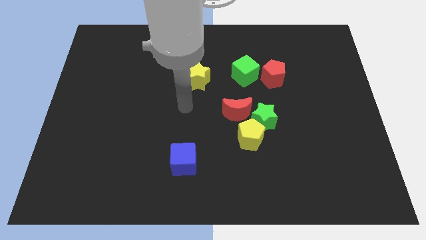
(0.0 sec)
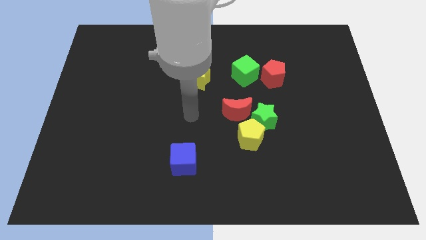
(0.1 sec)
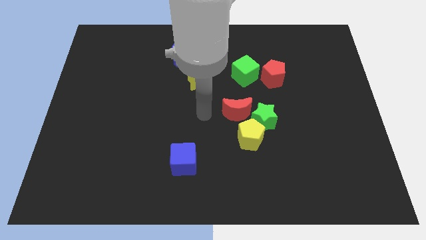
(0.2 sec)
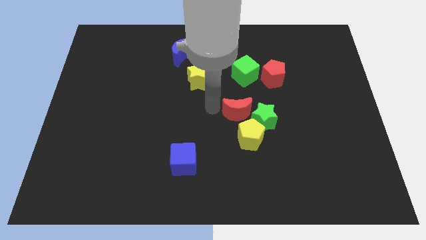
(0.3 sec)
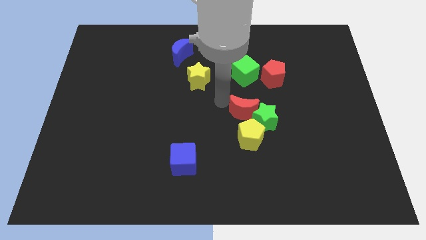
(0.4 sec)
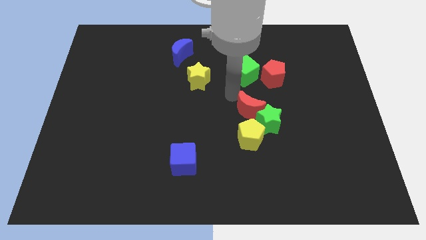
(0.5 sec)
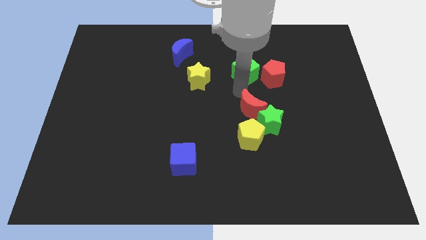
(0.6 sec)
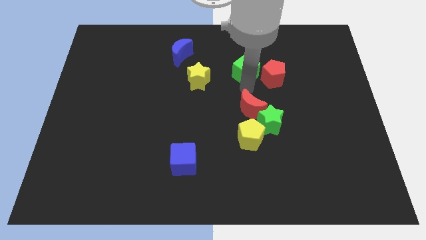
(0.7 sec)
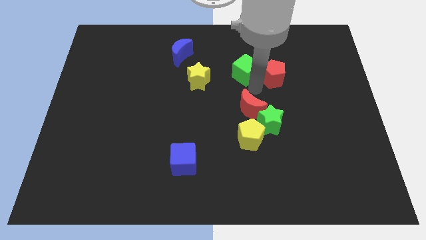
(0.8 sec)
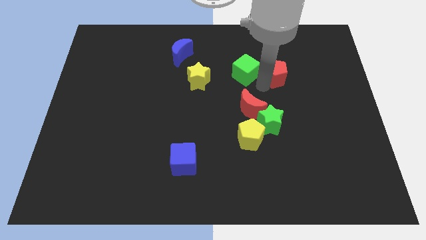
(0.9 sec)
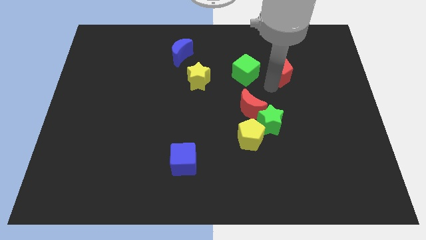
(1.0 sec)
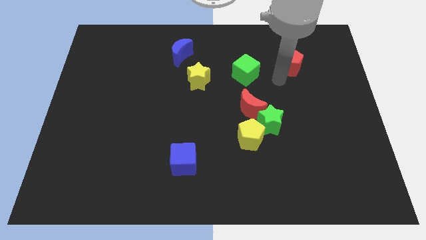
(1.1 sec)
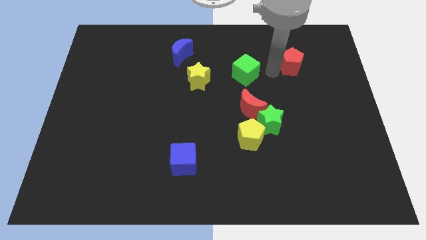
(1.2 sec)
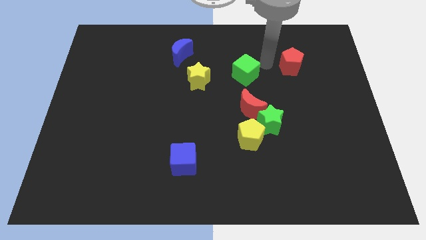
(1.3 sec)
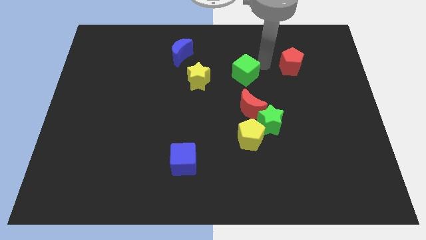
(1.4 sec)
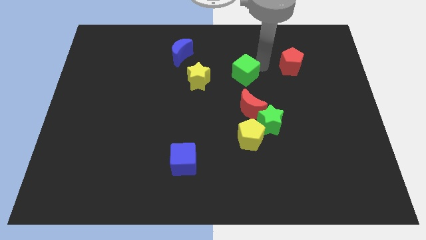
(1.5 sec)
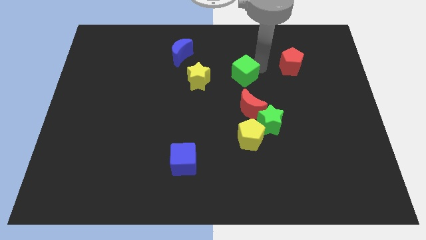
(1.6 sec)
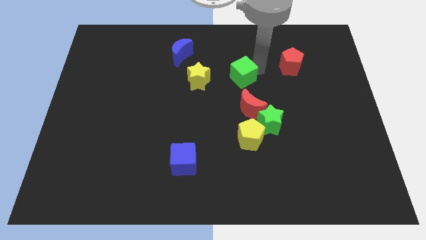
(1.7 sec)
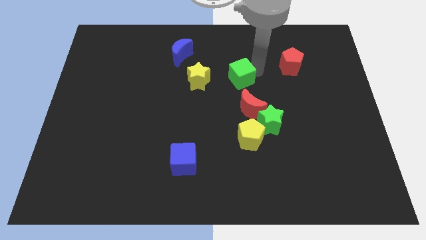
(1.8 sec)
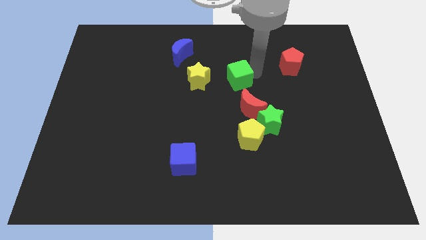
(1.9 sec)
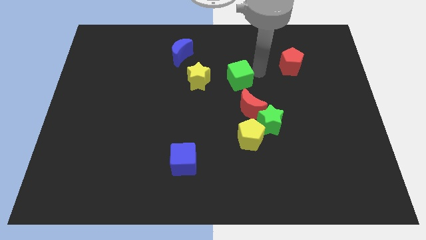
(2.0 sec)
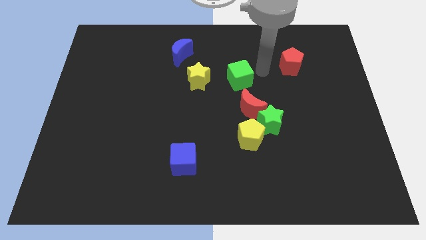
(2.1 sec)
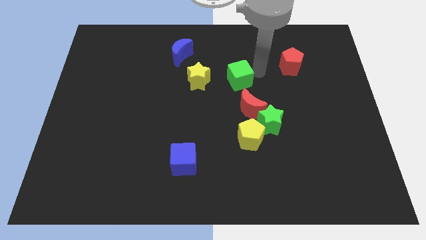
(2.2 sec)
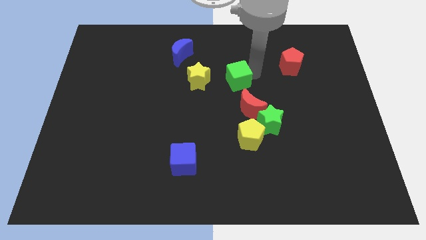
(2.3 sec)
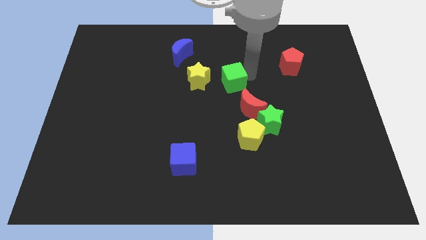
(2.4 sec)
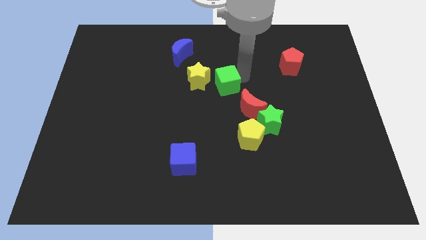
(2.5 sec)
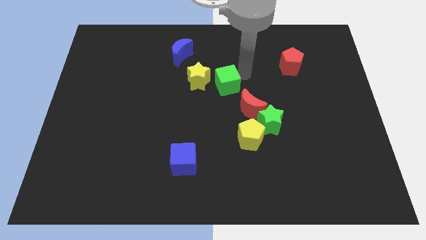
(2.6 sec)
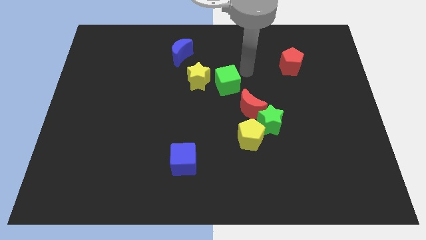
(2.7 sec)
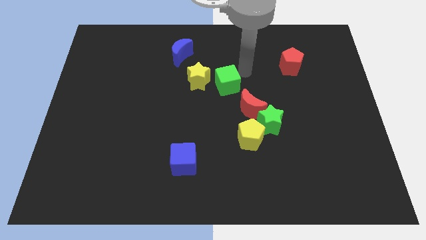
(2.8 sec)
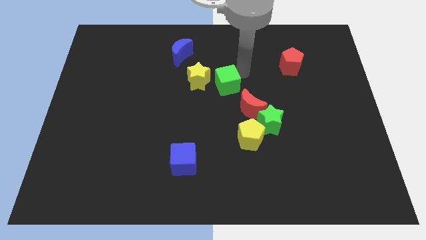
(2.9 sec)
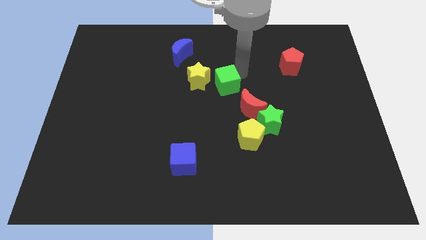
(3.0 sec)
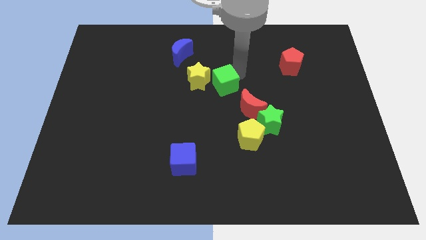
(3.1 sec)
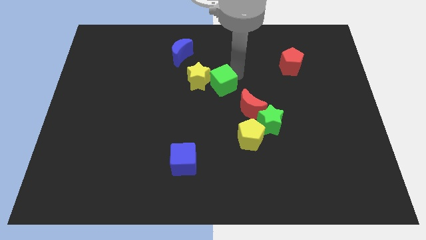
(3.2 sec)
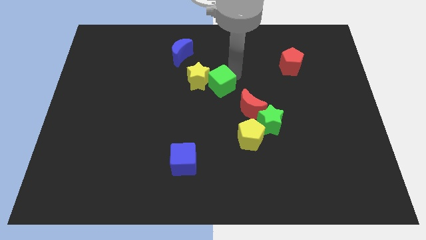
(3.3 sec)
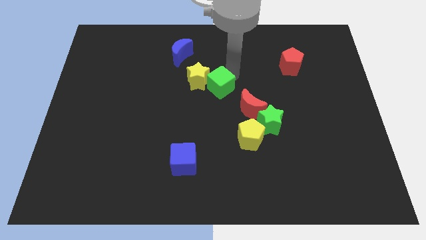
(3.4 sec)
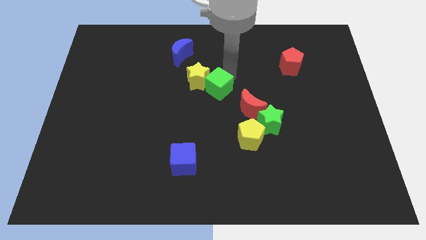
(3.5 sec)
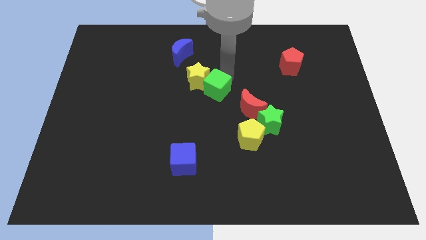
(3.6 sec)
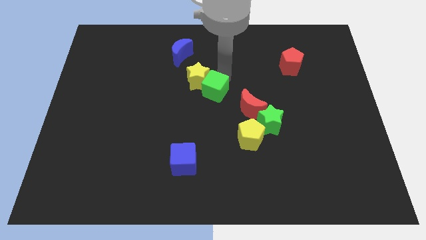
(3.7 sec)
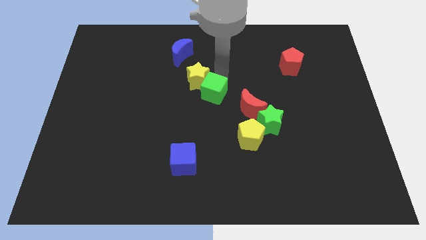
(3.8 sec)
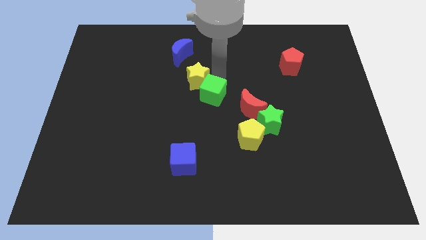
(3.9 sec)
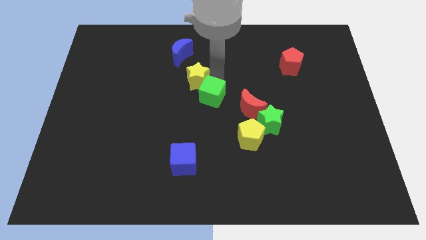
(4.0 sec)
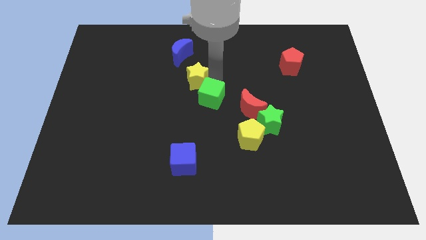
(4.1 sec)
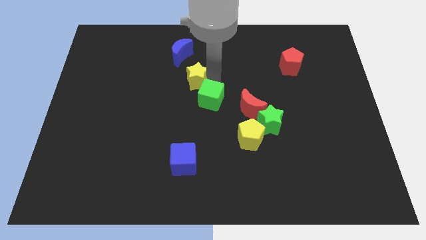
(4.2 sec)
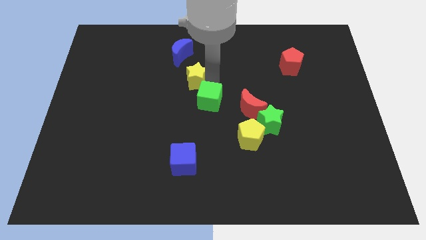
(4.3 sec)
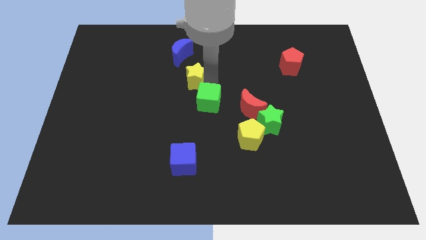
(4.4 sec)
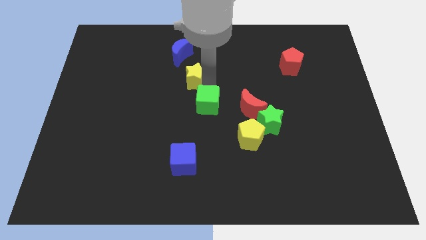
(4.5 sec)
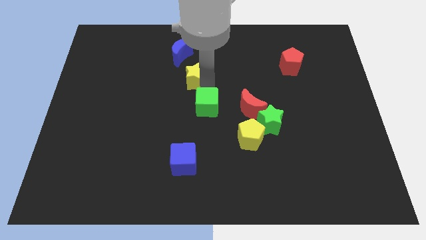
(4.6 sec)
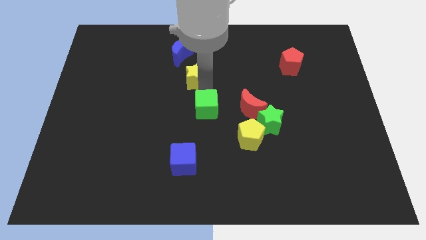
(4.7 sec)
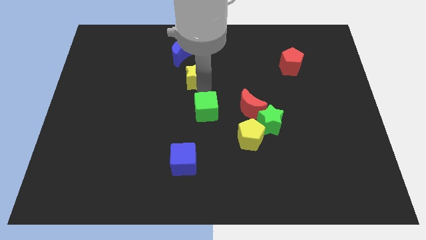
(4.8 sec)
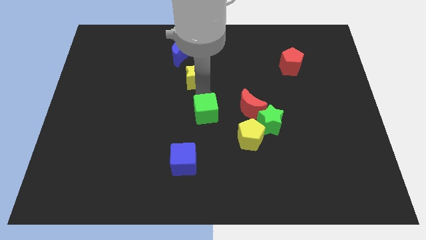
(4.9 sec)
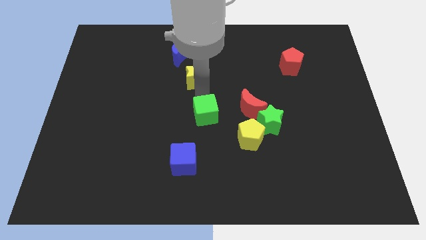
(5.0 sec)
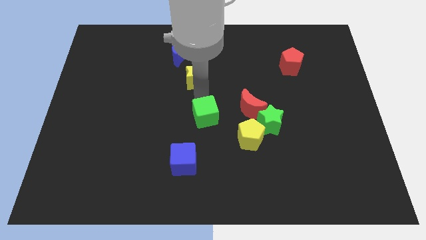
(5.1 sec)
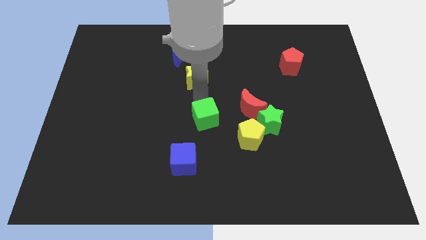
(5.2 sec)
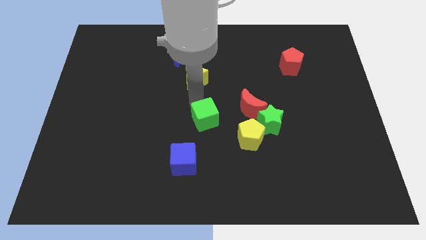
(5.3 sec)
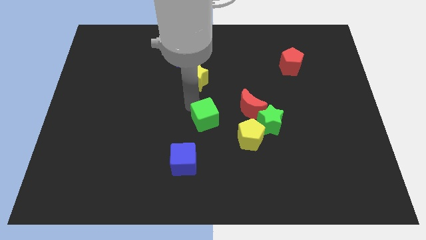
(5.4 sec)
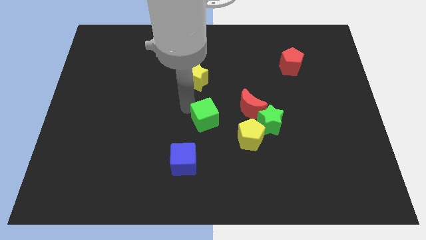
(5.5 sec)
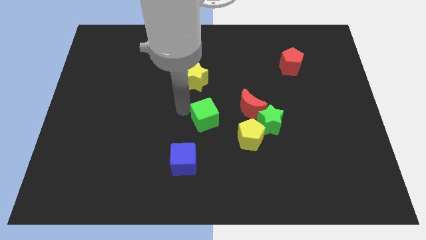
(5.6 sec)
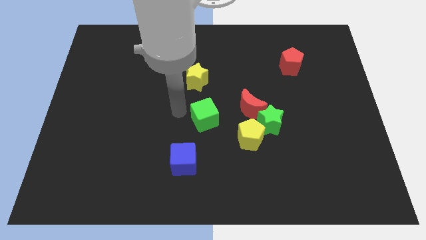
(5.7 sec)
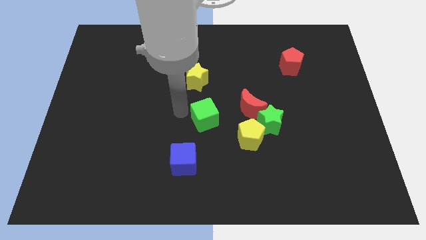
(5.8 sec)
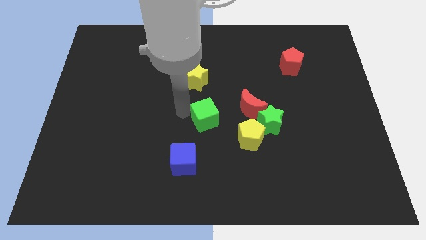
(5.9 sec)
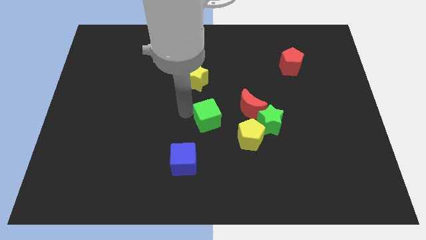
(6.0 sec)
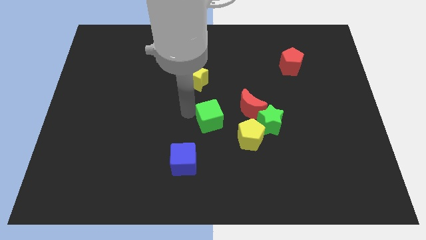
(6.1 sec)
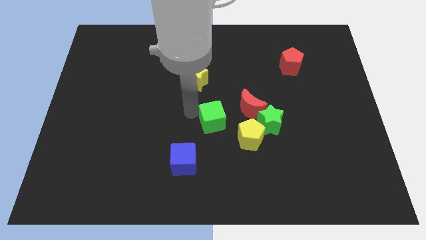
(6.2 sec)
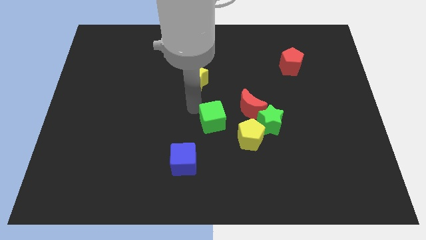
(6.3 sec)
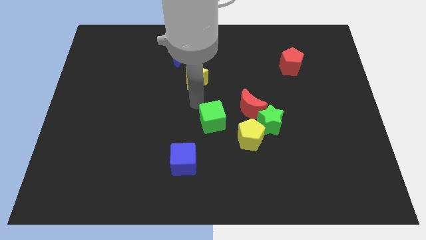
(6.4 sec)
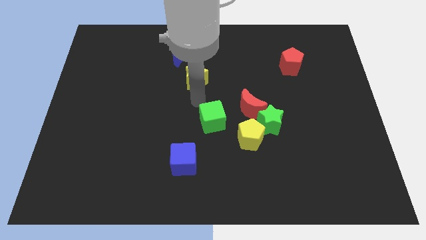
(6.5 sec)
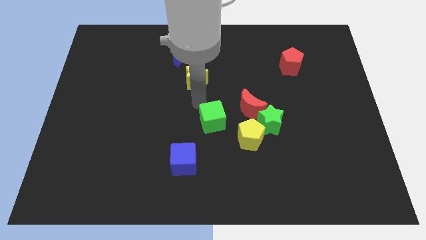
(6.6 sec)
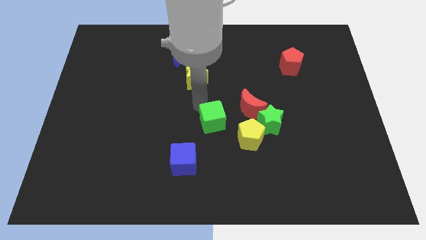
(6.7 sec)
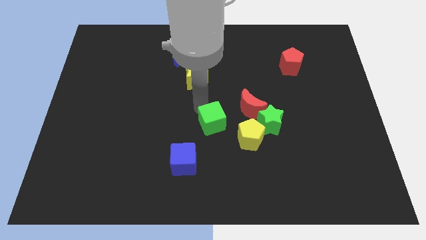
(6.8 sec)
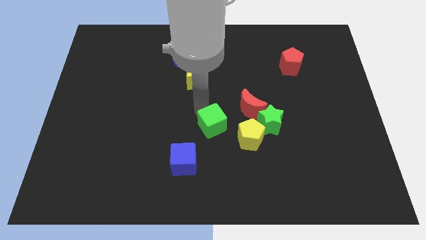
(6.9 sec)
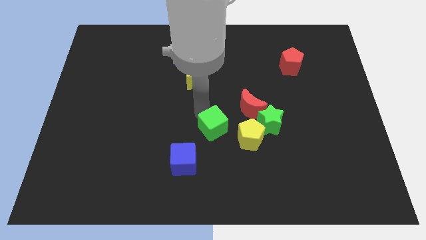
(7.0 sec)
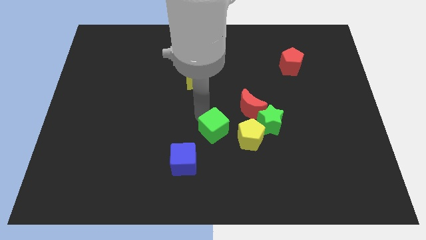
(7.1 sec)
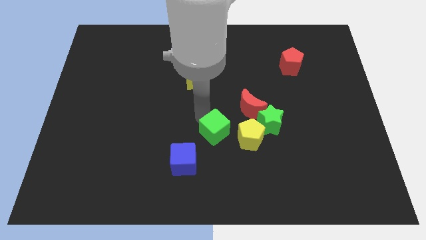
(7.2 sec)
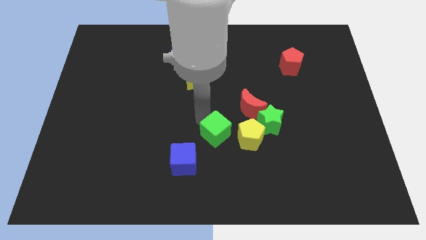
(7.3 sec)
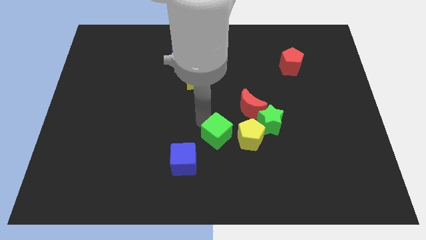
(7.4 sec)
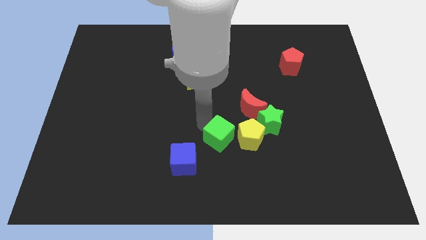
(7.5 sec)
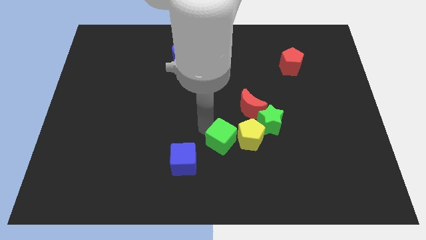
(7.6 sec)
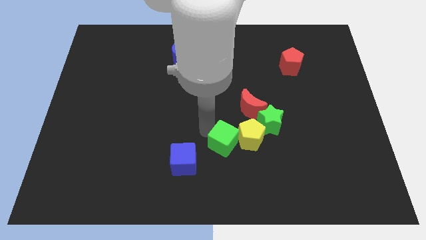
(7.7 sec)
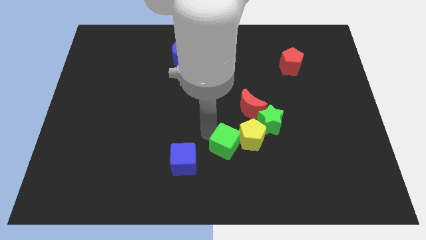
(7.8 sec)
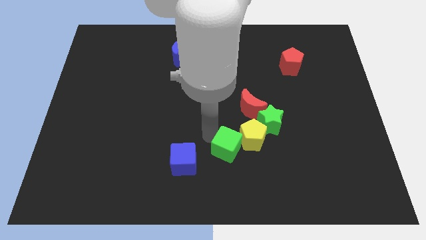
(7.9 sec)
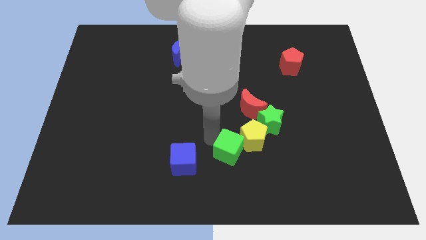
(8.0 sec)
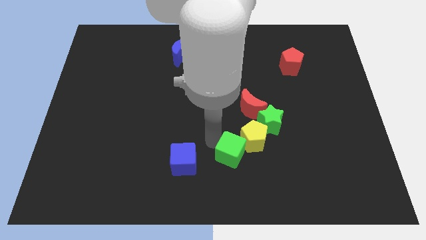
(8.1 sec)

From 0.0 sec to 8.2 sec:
put the green cube to the bottom of the red moon
